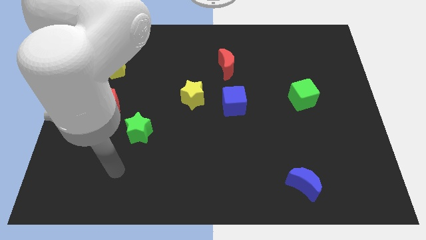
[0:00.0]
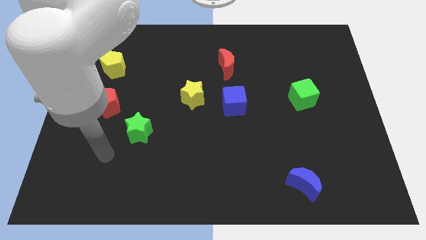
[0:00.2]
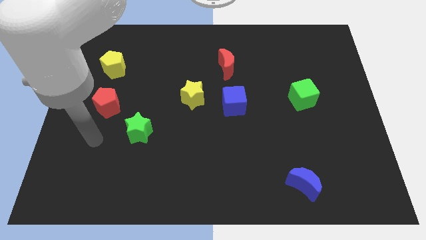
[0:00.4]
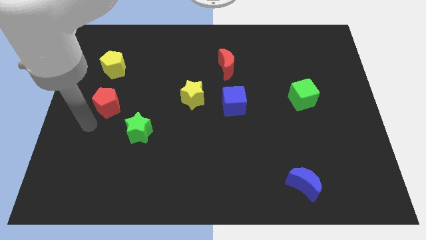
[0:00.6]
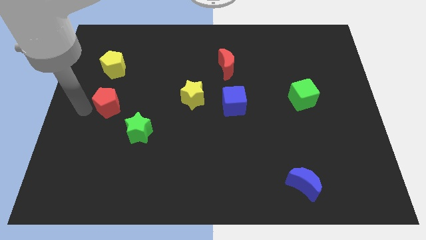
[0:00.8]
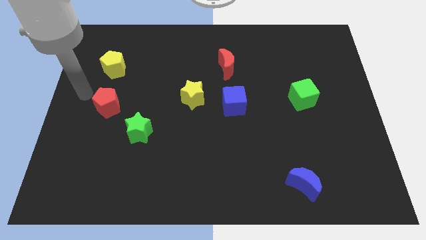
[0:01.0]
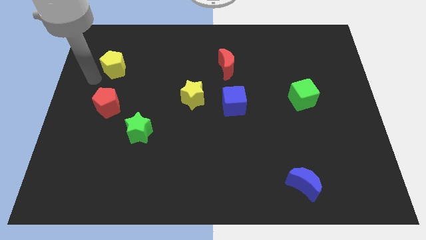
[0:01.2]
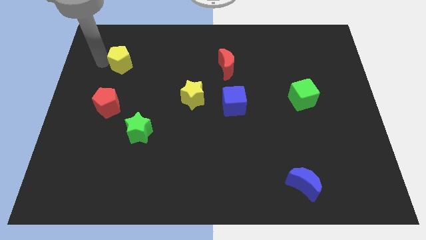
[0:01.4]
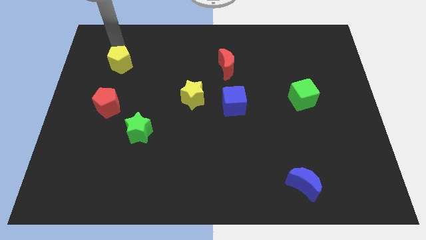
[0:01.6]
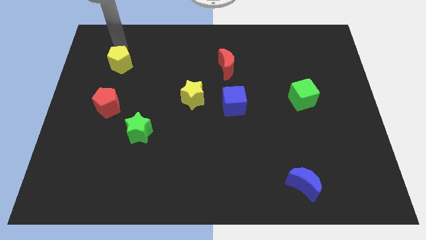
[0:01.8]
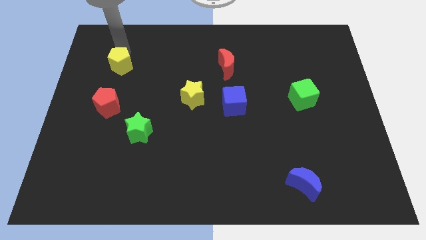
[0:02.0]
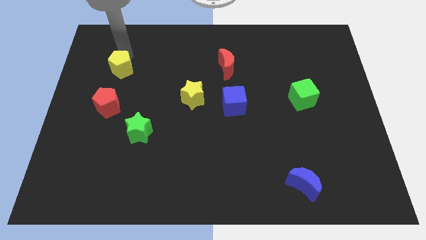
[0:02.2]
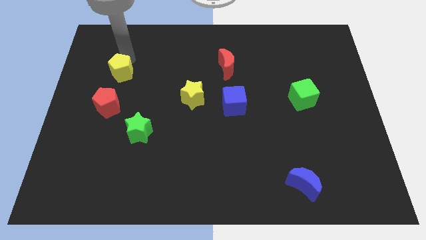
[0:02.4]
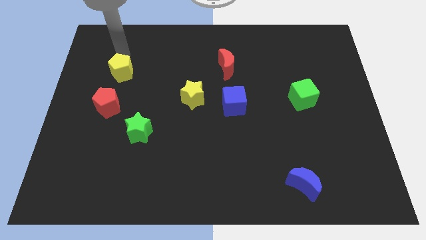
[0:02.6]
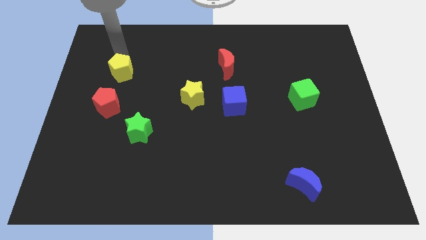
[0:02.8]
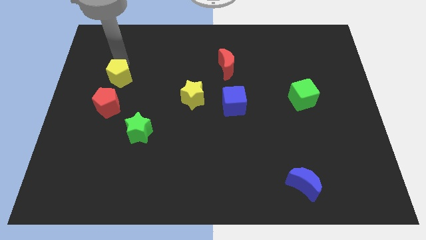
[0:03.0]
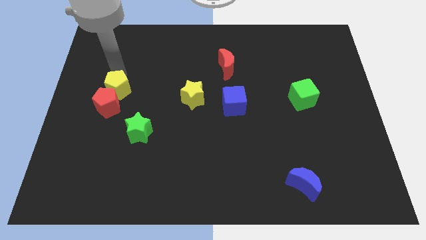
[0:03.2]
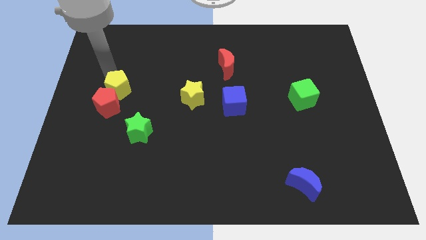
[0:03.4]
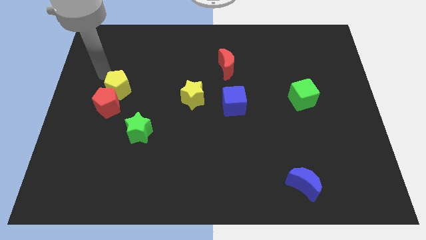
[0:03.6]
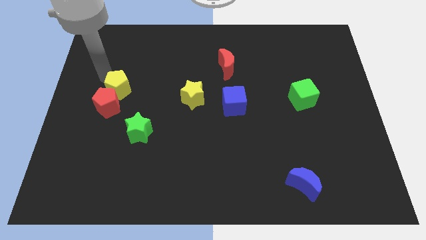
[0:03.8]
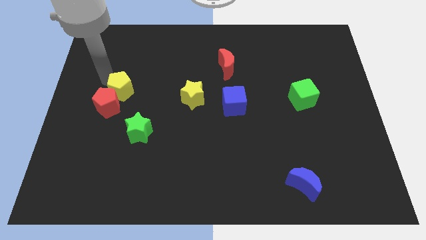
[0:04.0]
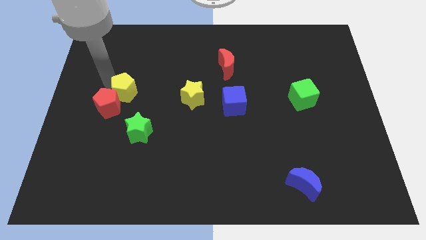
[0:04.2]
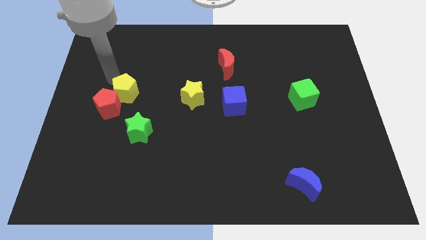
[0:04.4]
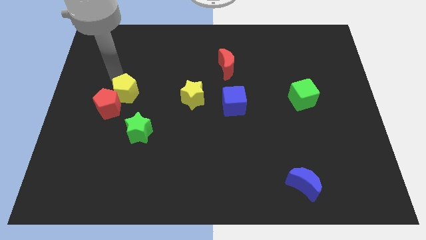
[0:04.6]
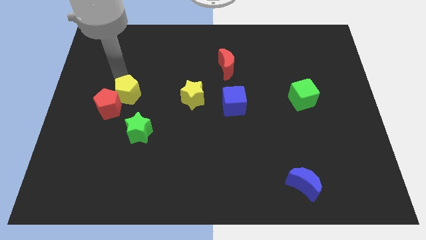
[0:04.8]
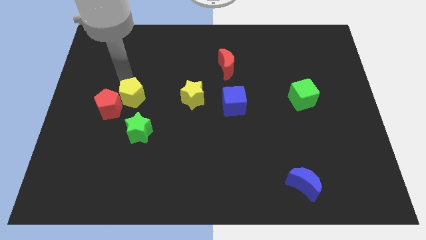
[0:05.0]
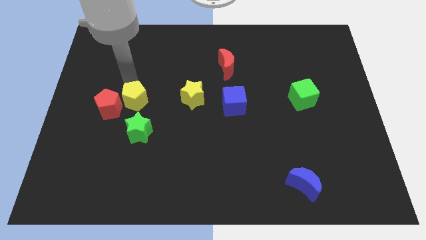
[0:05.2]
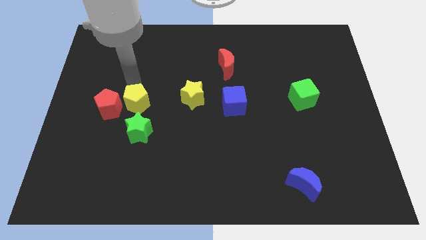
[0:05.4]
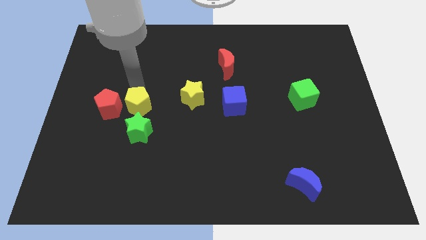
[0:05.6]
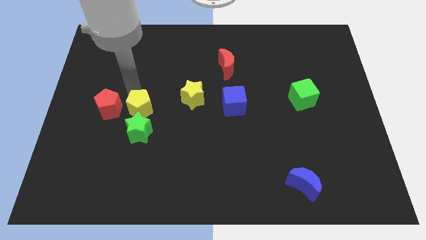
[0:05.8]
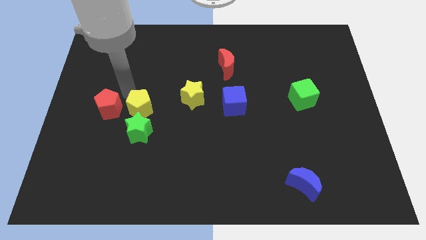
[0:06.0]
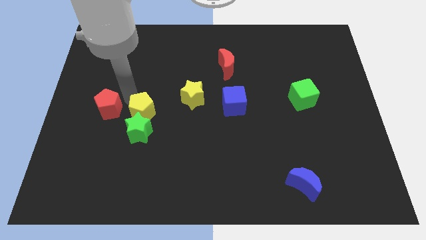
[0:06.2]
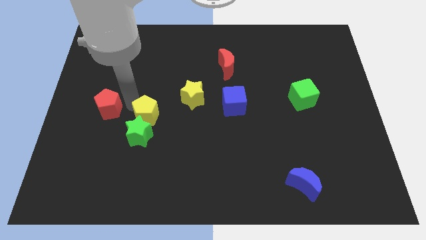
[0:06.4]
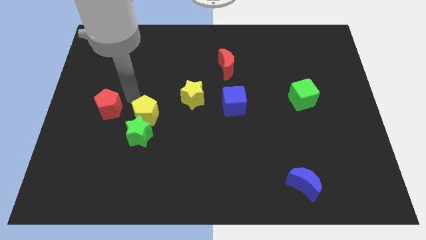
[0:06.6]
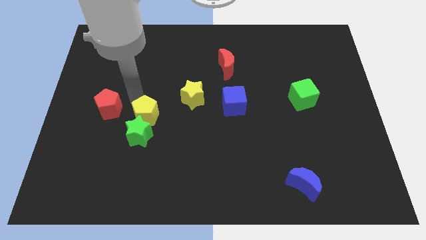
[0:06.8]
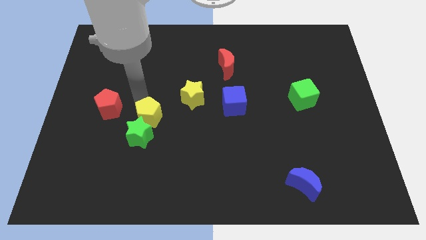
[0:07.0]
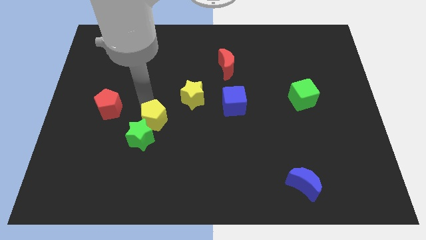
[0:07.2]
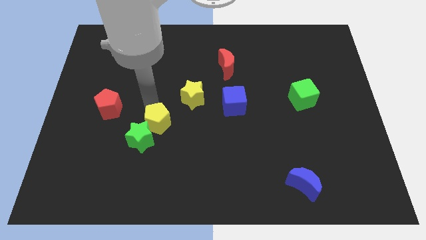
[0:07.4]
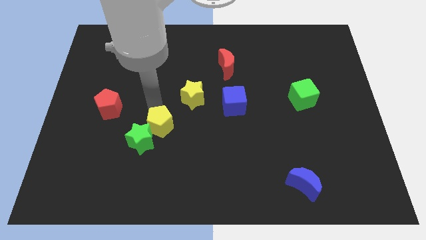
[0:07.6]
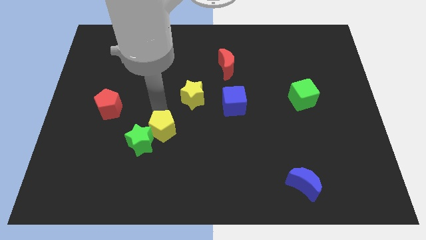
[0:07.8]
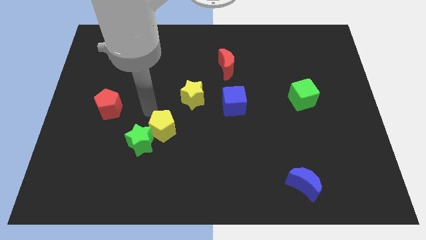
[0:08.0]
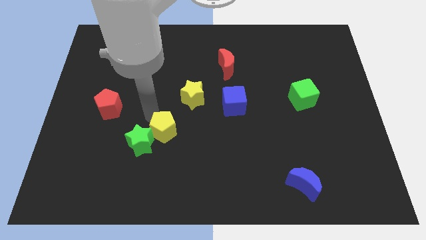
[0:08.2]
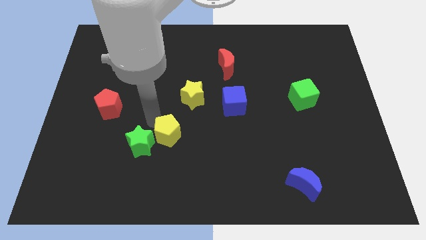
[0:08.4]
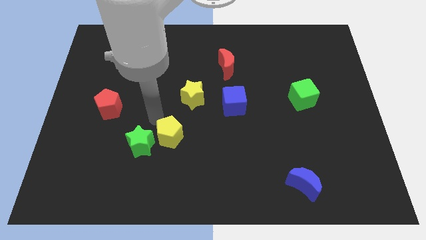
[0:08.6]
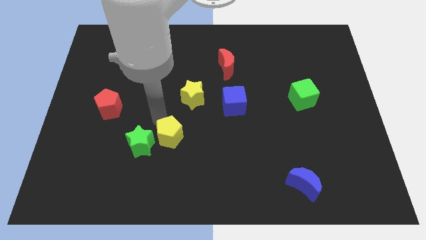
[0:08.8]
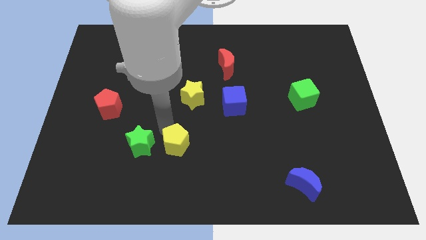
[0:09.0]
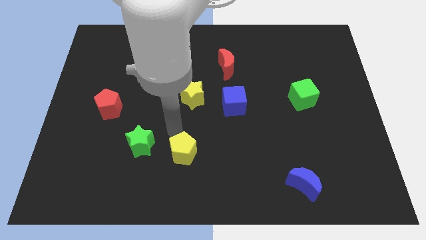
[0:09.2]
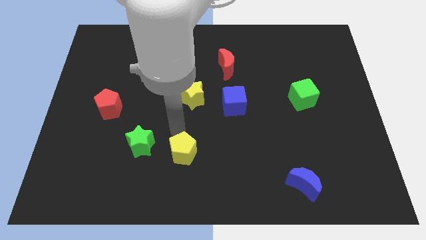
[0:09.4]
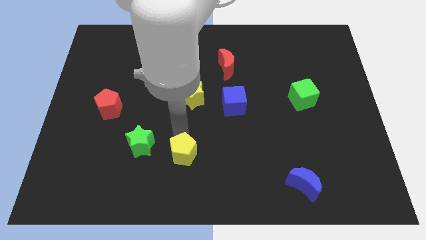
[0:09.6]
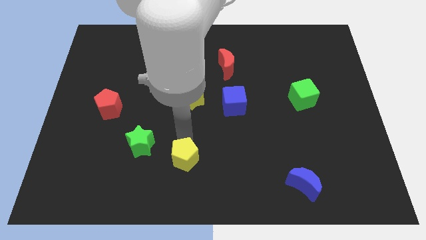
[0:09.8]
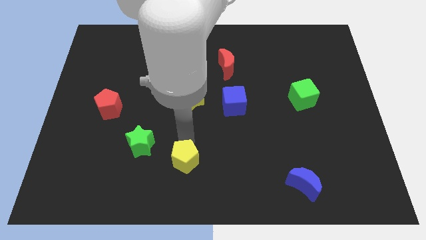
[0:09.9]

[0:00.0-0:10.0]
slide the yellow pentagon to the bottom

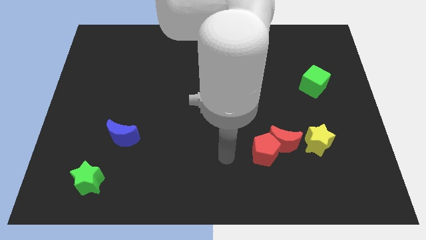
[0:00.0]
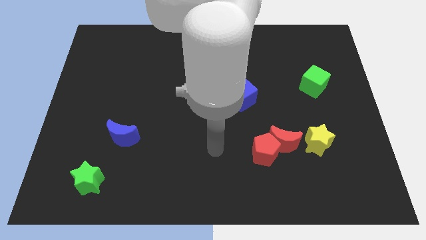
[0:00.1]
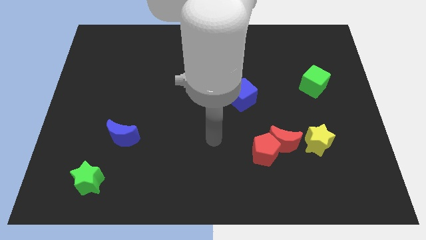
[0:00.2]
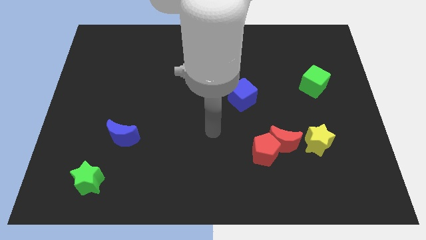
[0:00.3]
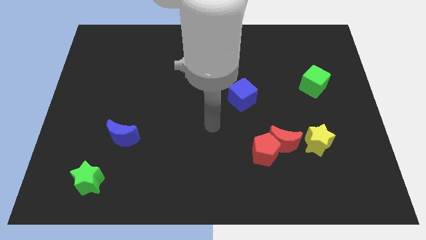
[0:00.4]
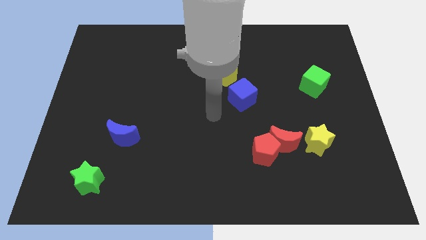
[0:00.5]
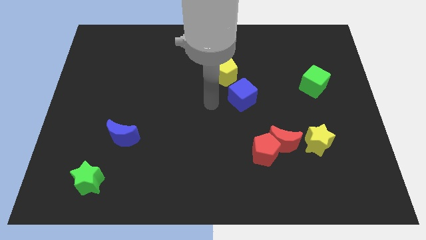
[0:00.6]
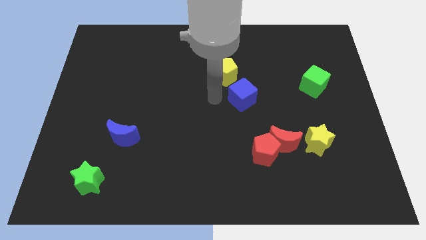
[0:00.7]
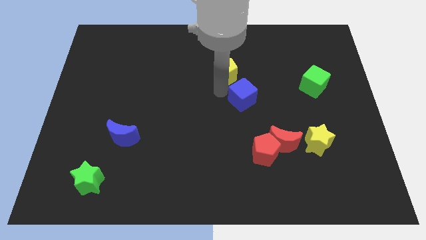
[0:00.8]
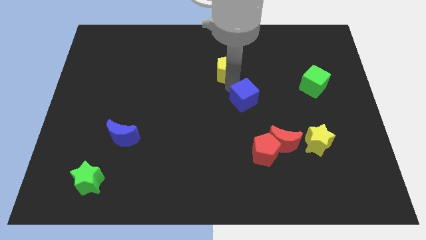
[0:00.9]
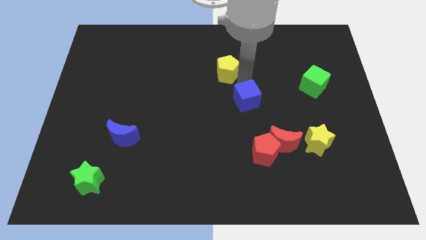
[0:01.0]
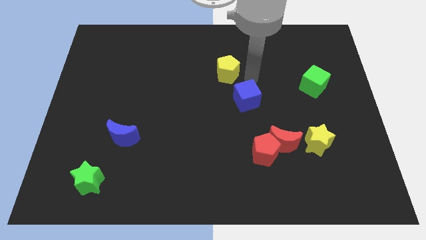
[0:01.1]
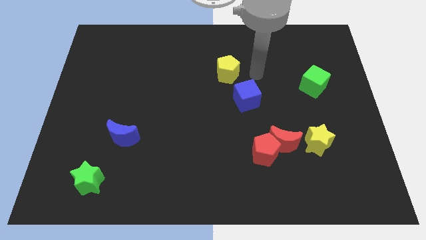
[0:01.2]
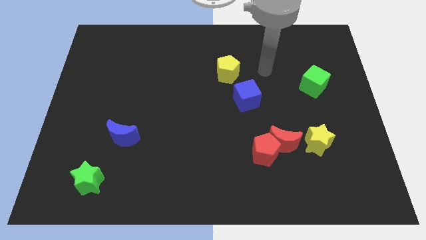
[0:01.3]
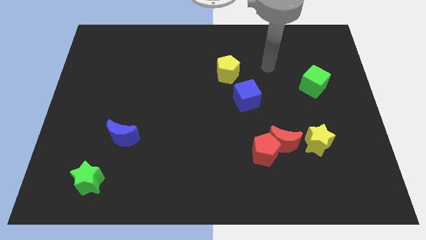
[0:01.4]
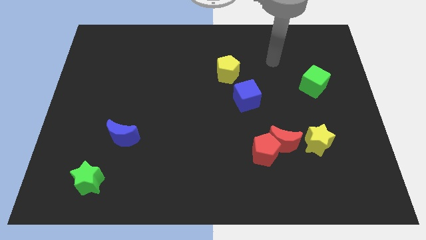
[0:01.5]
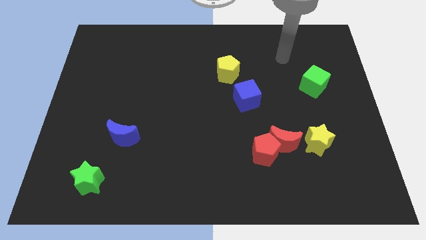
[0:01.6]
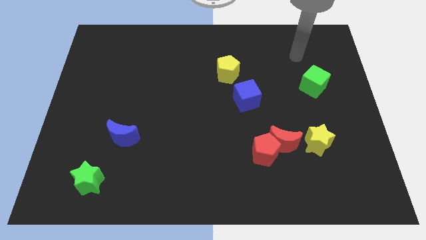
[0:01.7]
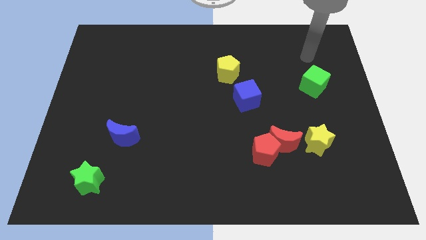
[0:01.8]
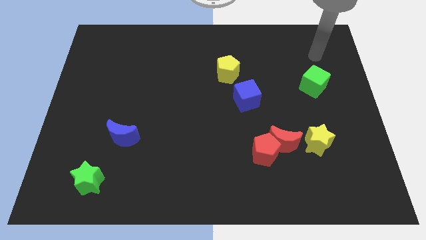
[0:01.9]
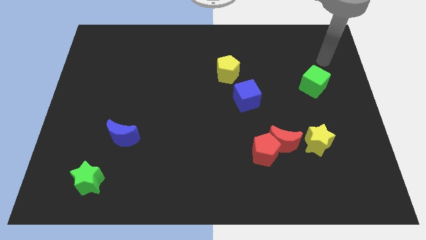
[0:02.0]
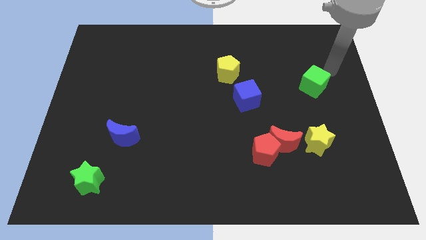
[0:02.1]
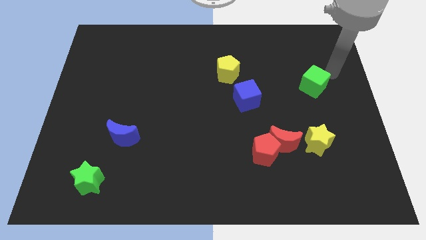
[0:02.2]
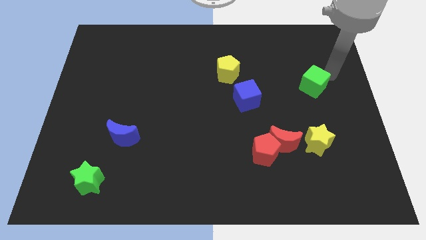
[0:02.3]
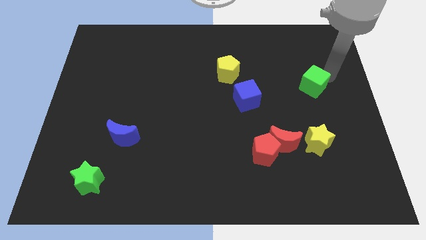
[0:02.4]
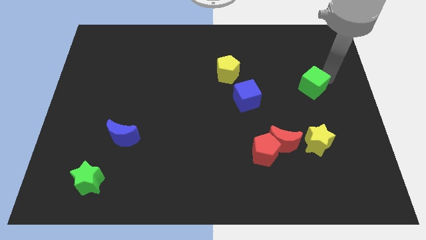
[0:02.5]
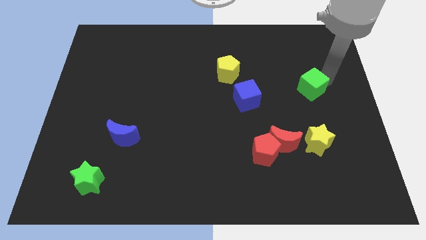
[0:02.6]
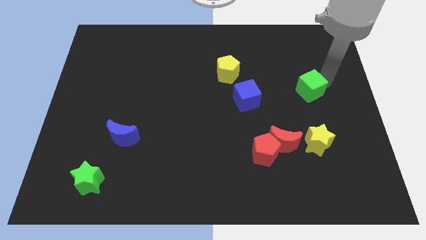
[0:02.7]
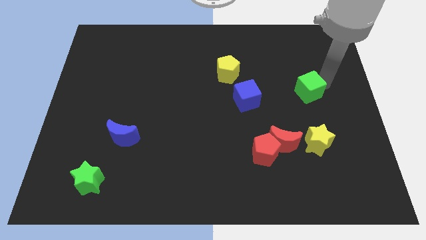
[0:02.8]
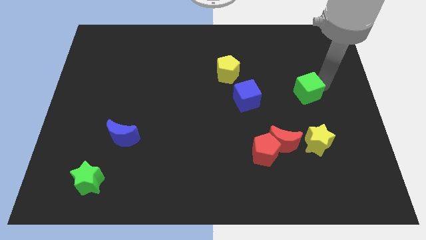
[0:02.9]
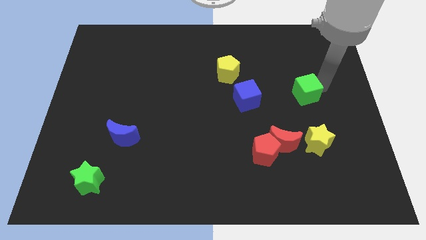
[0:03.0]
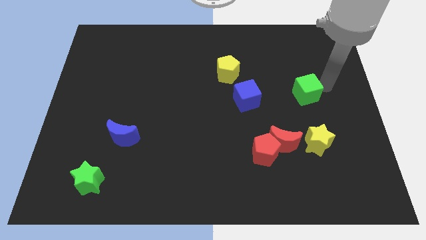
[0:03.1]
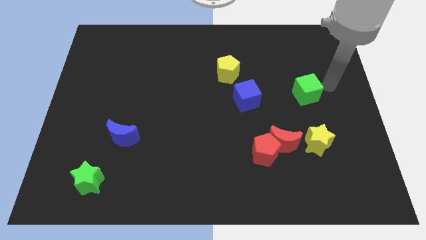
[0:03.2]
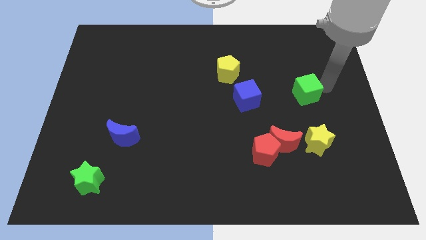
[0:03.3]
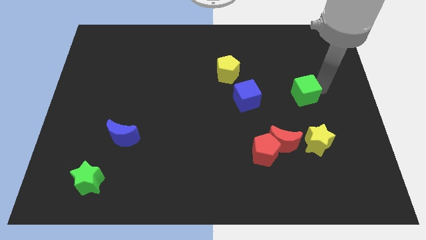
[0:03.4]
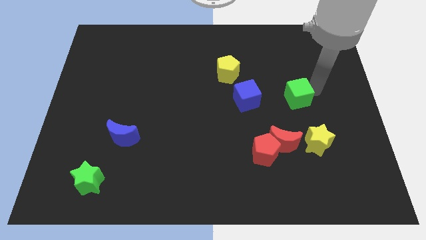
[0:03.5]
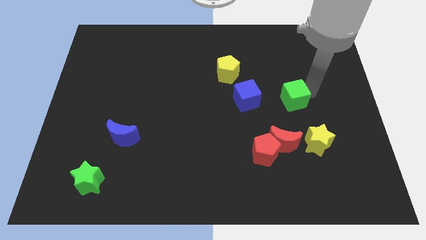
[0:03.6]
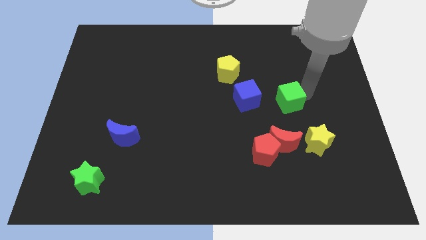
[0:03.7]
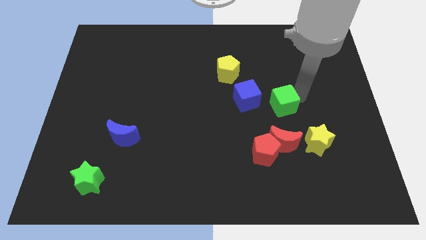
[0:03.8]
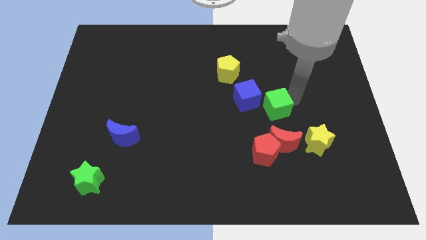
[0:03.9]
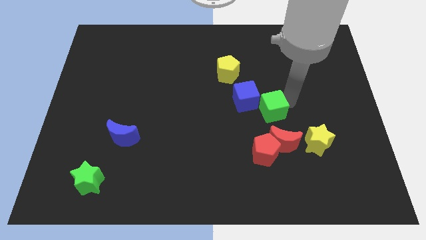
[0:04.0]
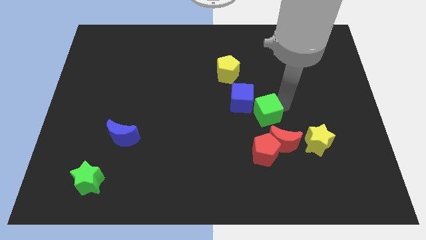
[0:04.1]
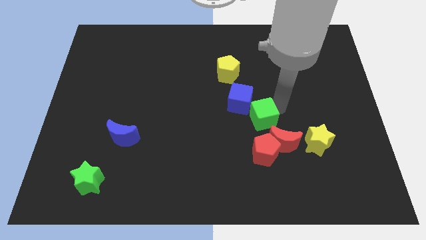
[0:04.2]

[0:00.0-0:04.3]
slide the green cube to the center of the board
